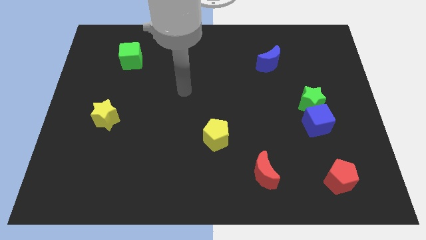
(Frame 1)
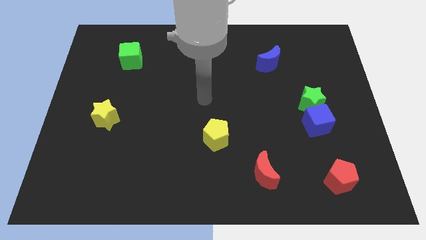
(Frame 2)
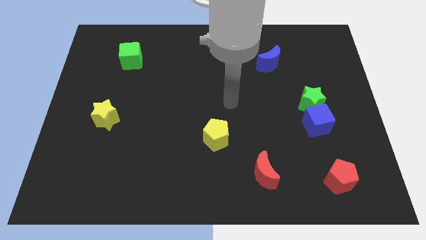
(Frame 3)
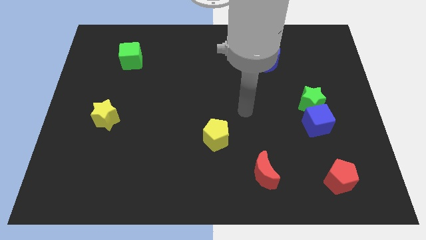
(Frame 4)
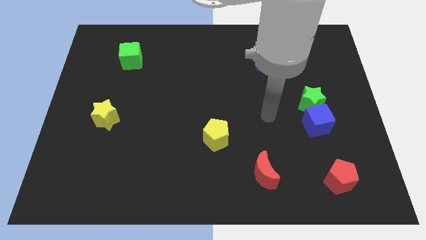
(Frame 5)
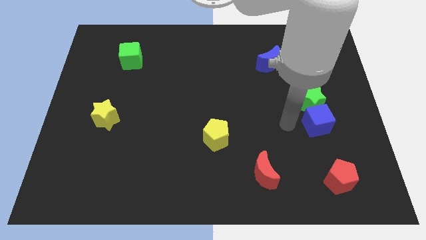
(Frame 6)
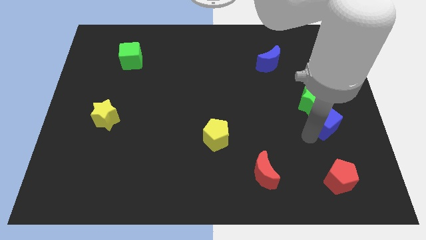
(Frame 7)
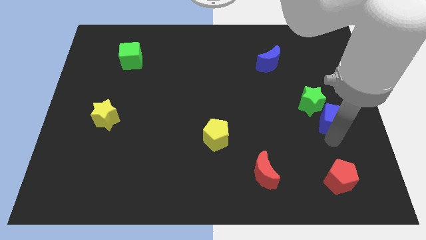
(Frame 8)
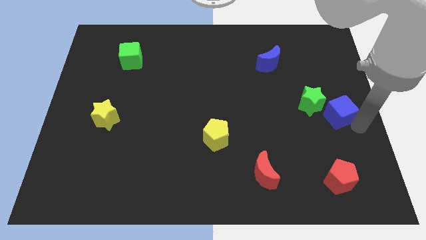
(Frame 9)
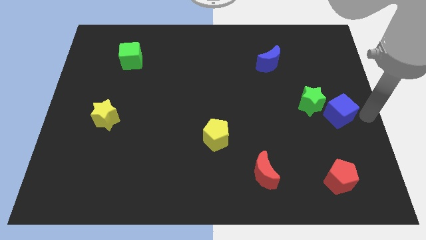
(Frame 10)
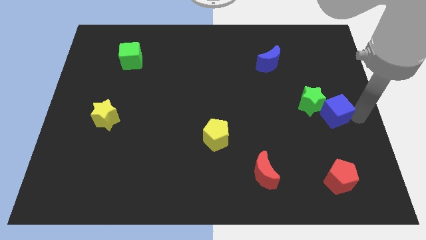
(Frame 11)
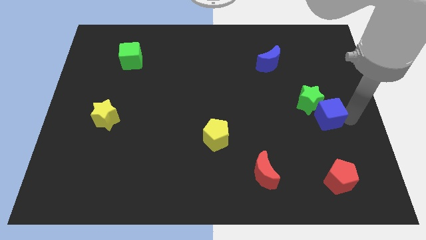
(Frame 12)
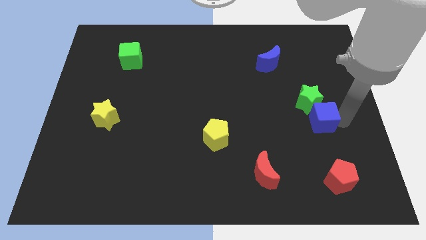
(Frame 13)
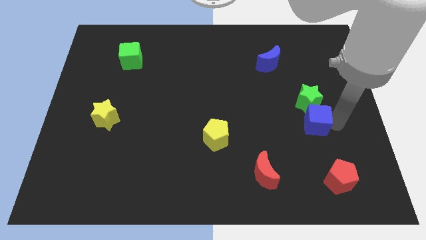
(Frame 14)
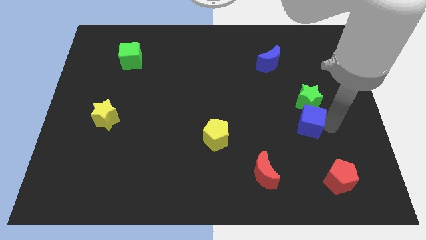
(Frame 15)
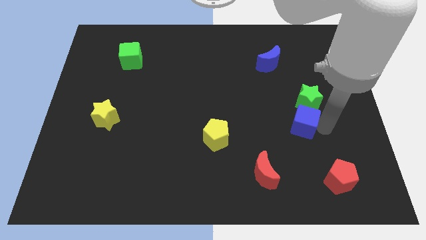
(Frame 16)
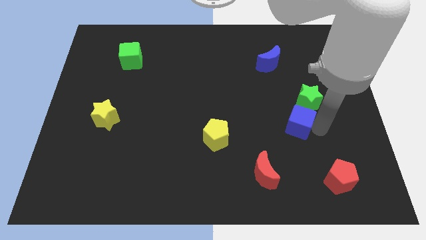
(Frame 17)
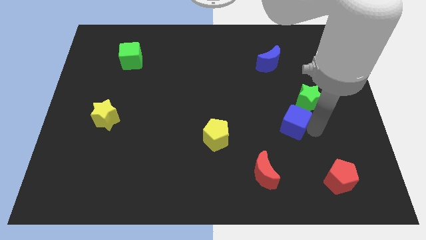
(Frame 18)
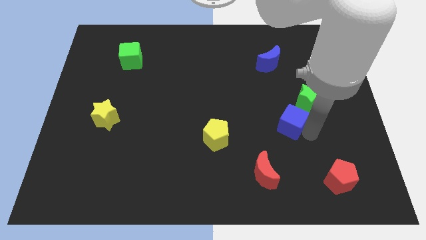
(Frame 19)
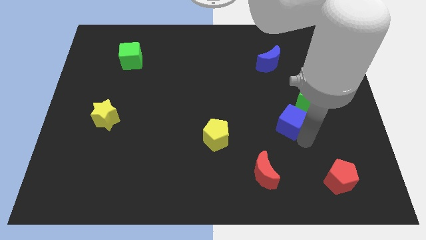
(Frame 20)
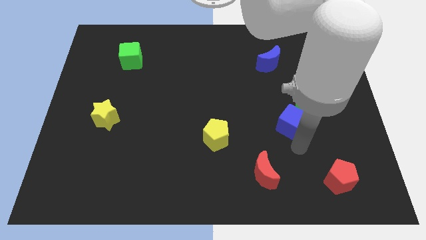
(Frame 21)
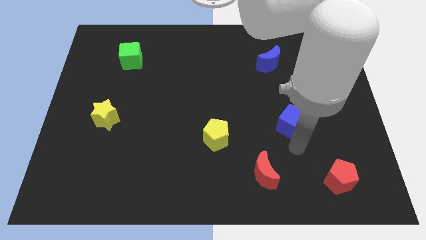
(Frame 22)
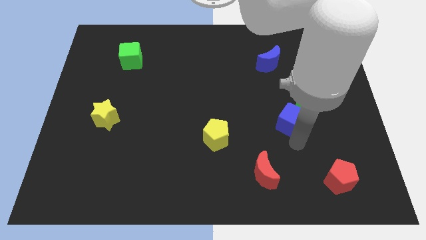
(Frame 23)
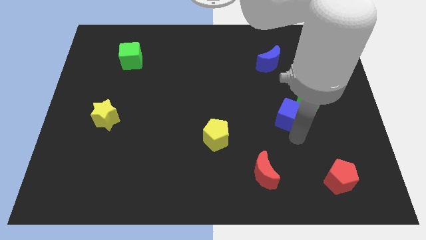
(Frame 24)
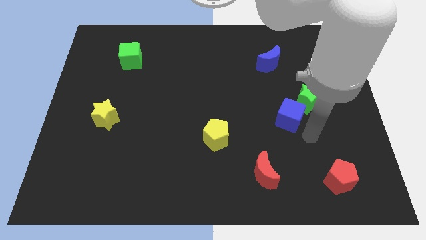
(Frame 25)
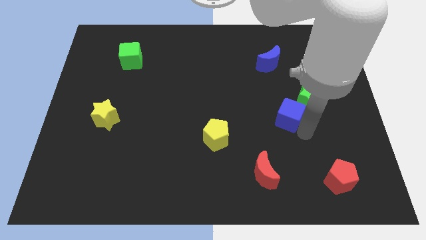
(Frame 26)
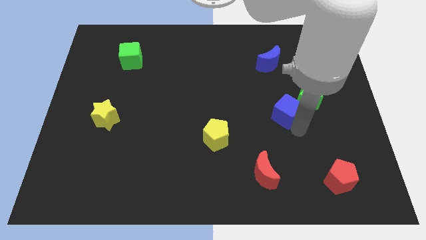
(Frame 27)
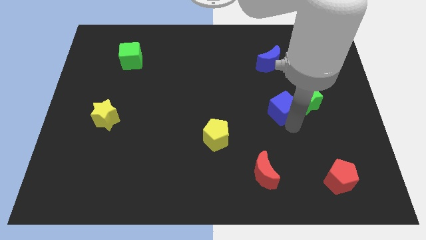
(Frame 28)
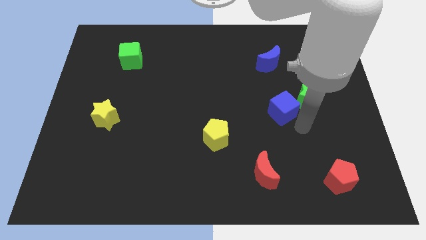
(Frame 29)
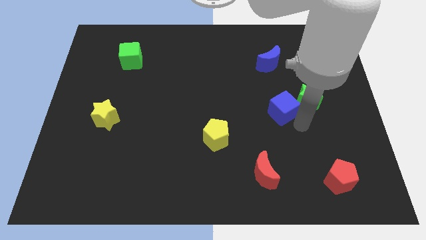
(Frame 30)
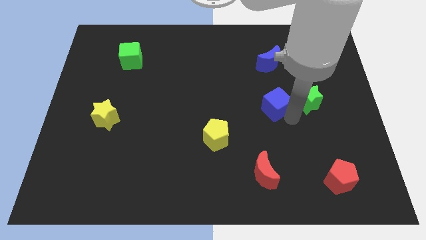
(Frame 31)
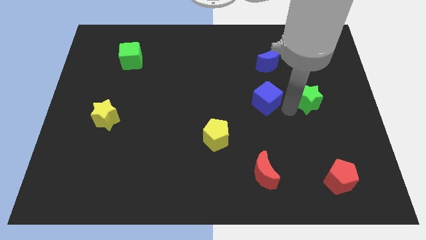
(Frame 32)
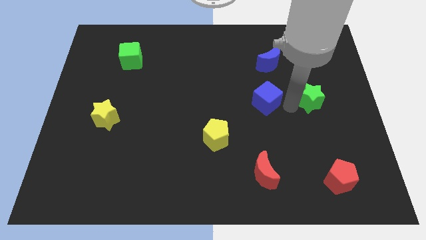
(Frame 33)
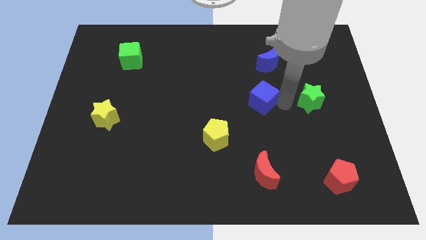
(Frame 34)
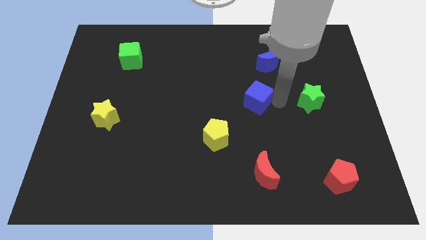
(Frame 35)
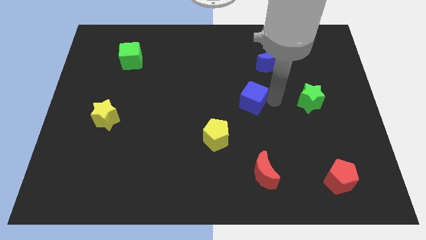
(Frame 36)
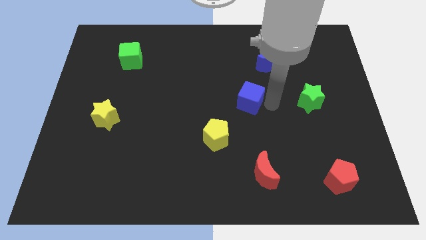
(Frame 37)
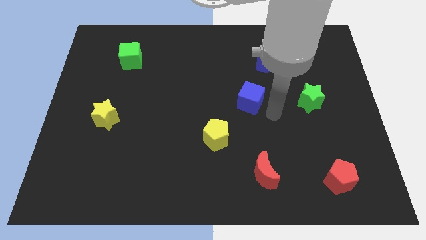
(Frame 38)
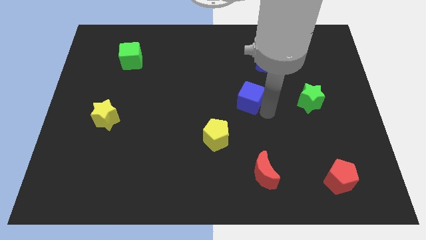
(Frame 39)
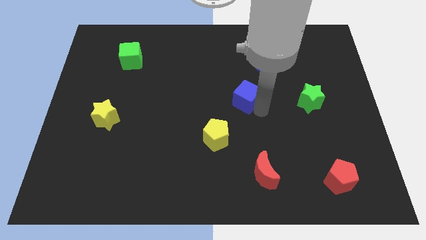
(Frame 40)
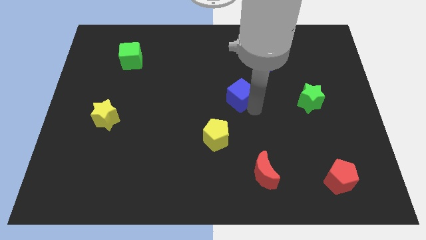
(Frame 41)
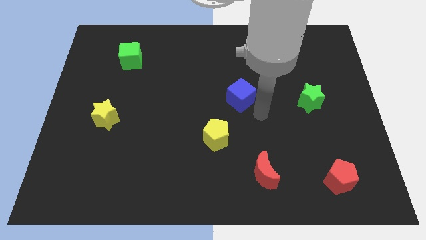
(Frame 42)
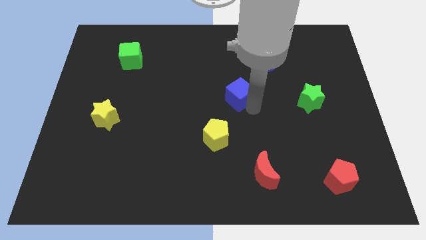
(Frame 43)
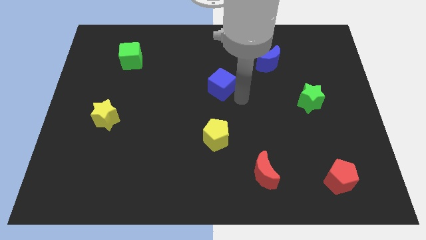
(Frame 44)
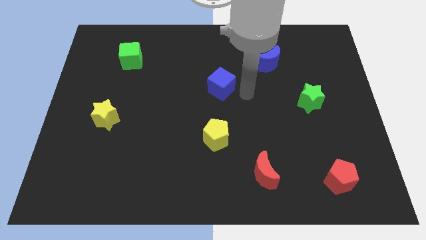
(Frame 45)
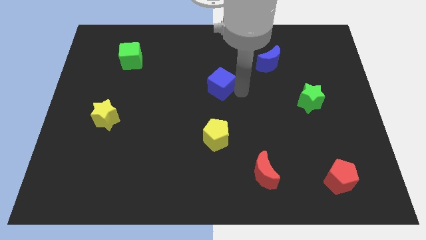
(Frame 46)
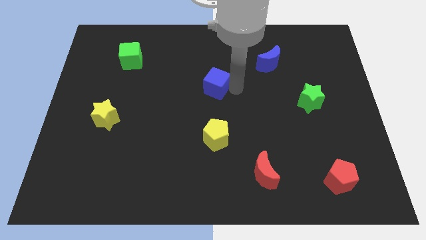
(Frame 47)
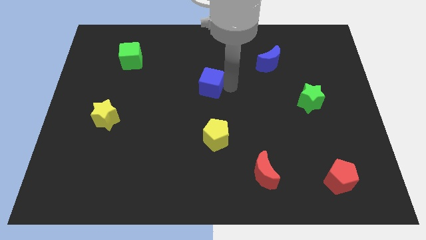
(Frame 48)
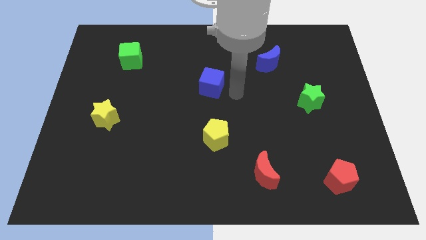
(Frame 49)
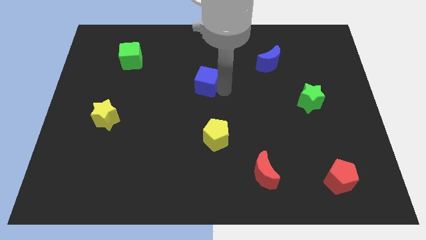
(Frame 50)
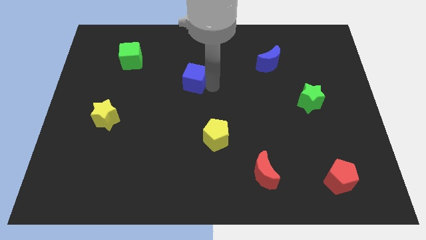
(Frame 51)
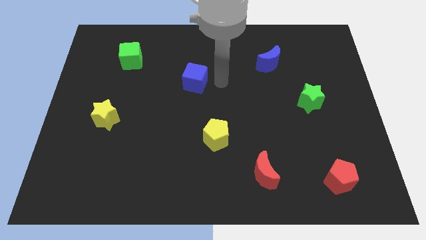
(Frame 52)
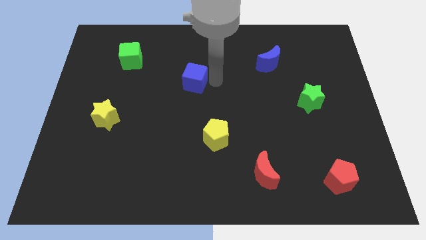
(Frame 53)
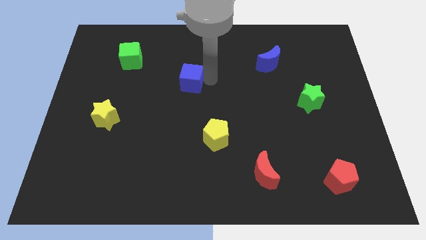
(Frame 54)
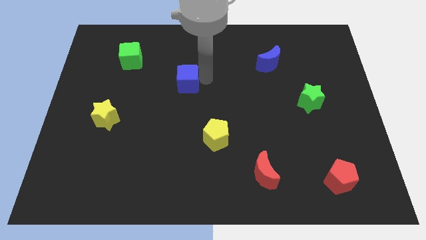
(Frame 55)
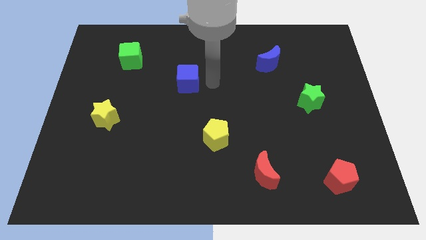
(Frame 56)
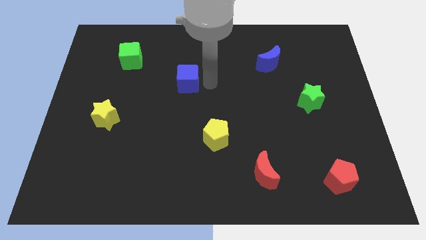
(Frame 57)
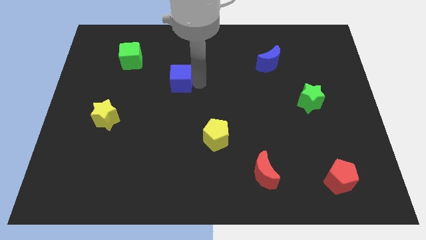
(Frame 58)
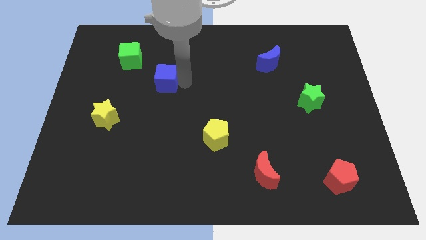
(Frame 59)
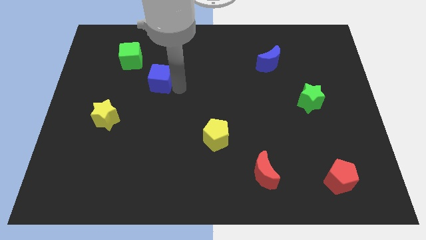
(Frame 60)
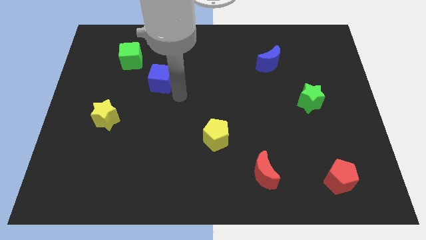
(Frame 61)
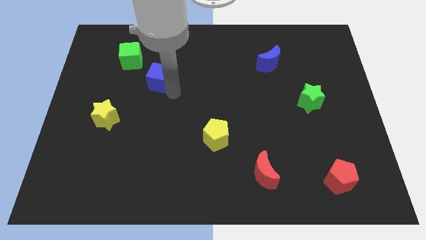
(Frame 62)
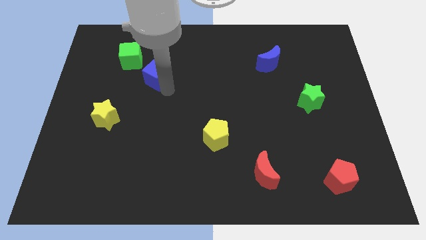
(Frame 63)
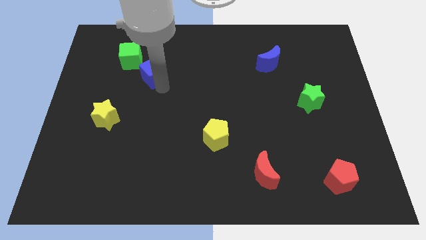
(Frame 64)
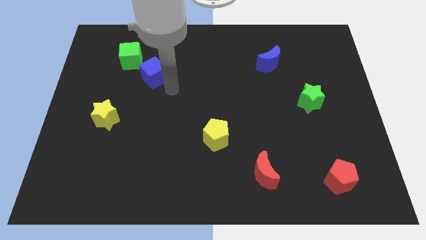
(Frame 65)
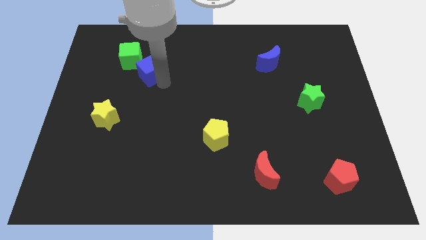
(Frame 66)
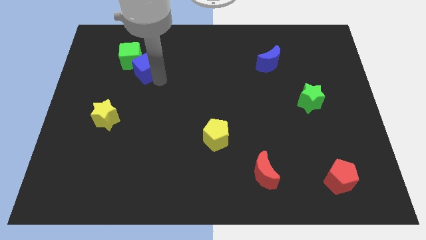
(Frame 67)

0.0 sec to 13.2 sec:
put the blue cube close to the green cube
